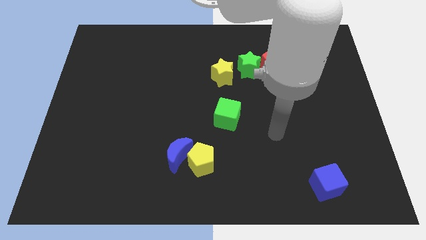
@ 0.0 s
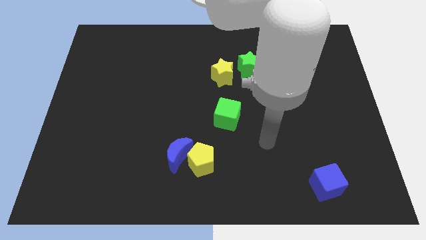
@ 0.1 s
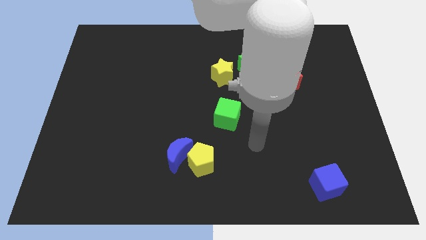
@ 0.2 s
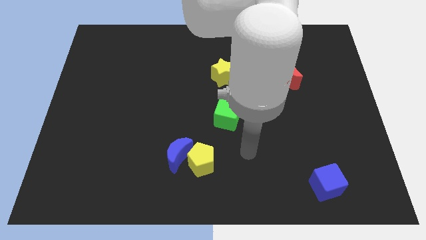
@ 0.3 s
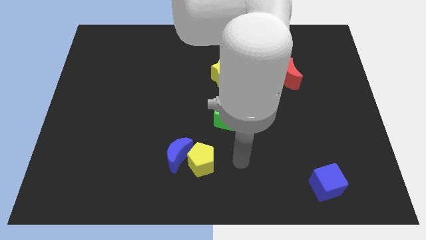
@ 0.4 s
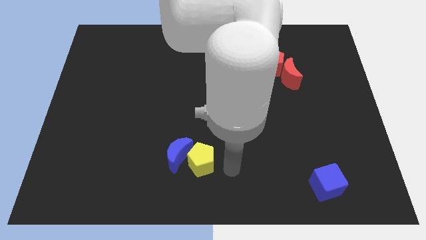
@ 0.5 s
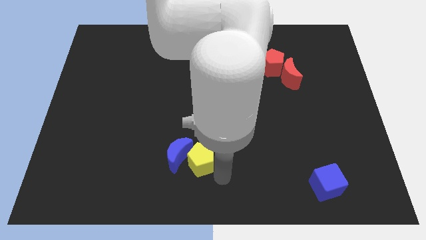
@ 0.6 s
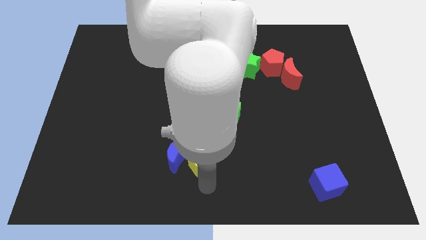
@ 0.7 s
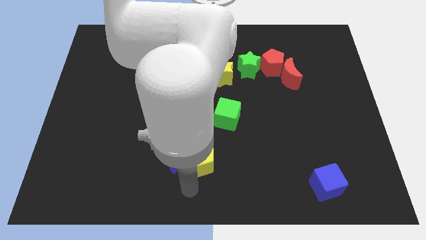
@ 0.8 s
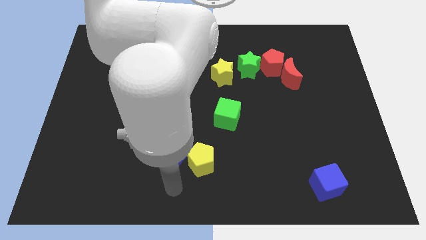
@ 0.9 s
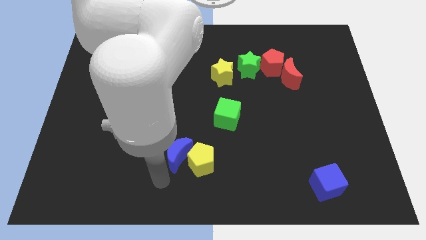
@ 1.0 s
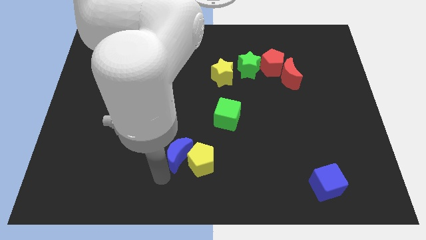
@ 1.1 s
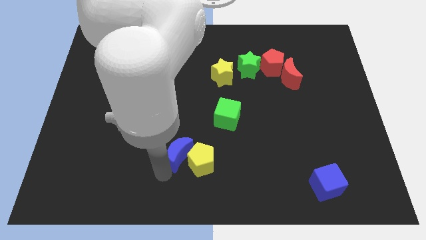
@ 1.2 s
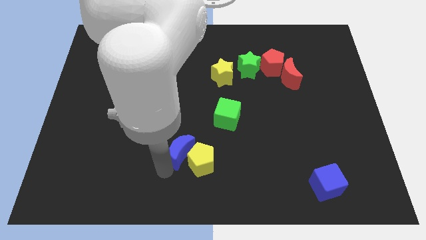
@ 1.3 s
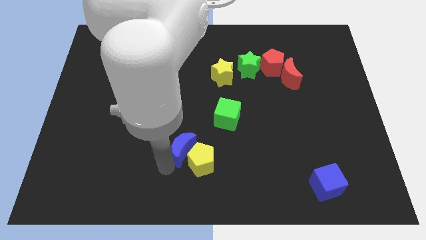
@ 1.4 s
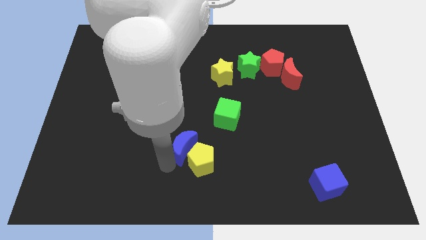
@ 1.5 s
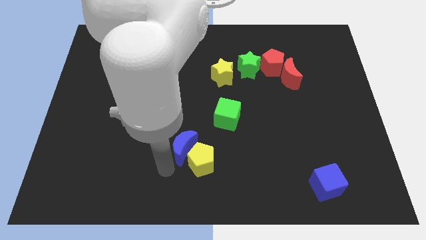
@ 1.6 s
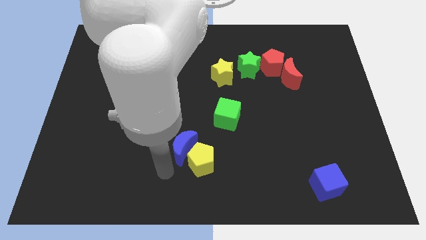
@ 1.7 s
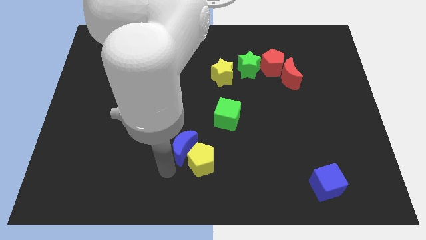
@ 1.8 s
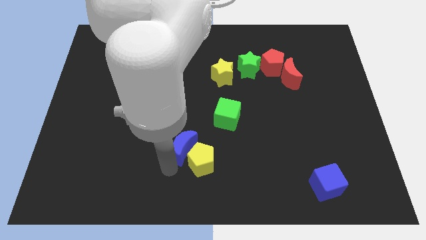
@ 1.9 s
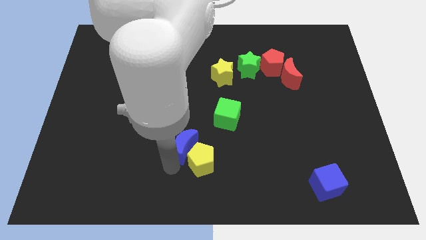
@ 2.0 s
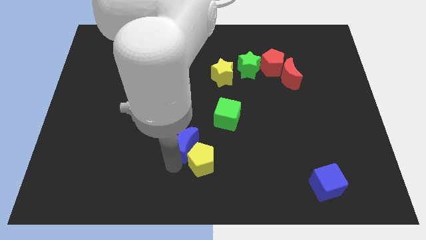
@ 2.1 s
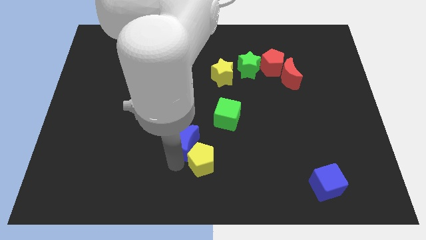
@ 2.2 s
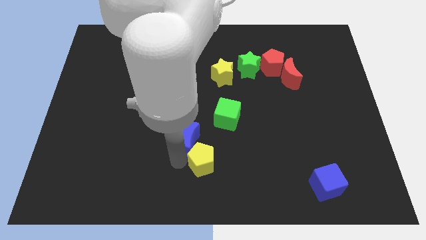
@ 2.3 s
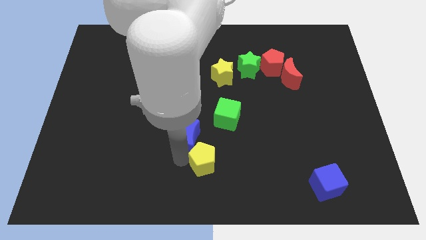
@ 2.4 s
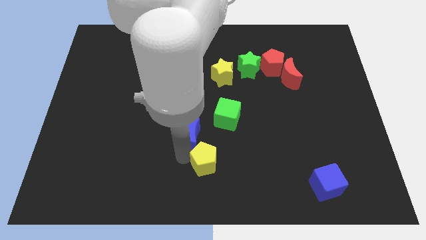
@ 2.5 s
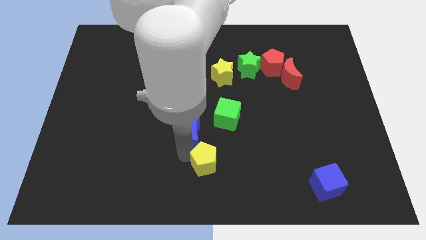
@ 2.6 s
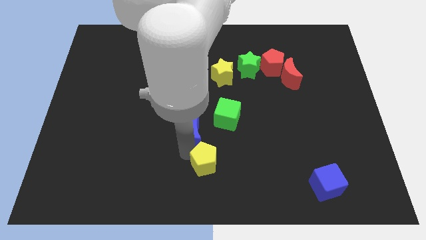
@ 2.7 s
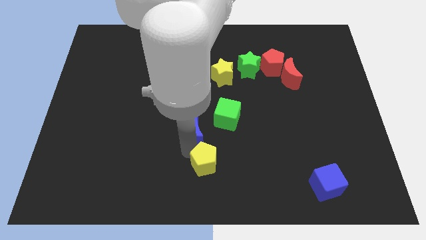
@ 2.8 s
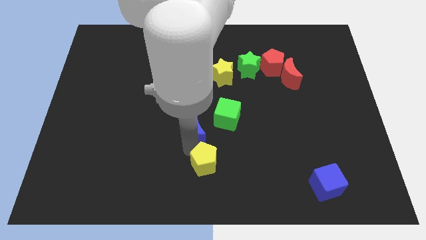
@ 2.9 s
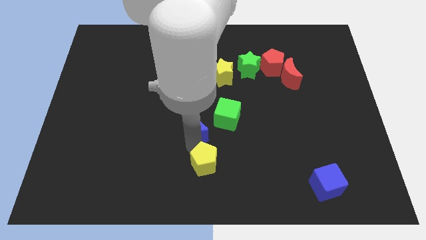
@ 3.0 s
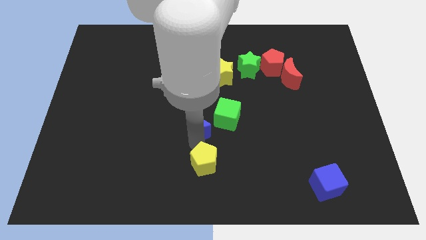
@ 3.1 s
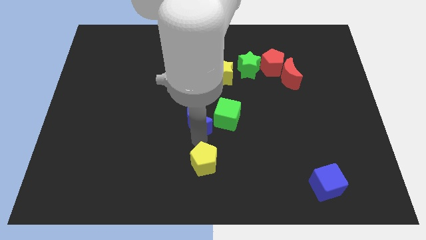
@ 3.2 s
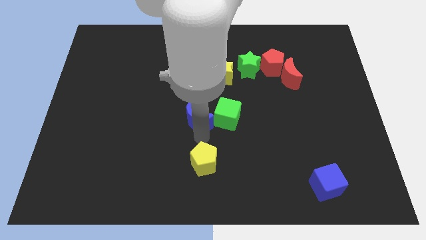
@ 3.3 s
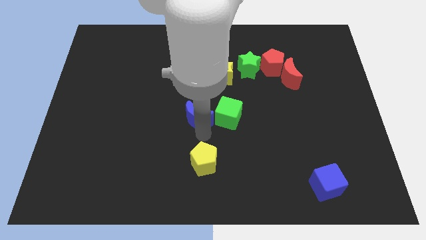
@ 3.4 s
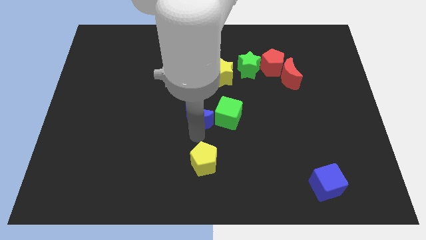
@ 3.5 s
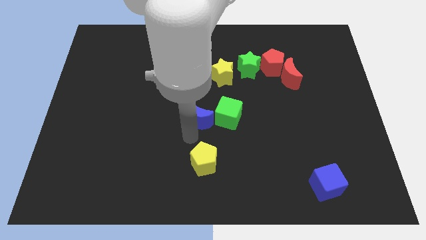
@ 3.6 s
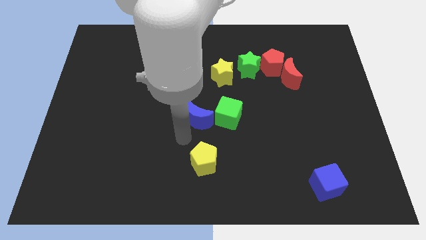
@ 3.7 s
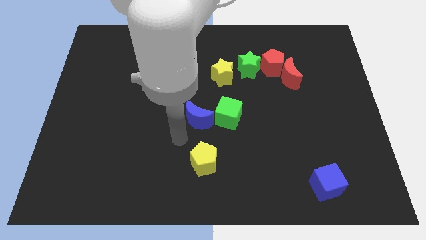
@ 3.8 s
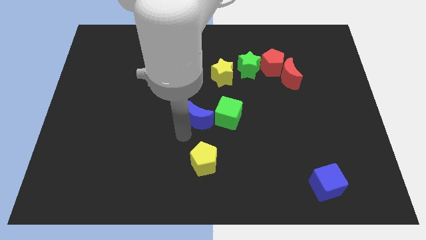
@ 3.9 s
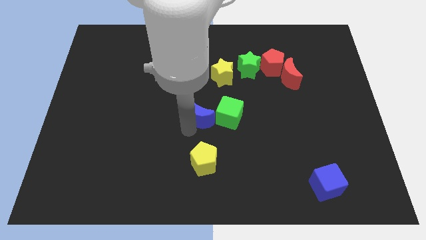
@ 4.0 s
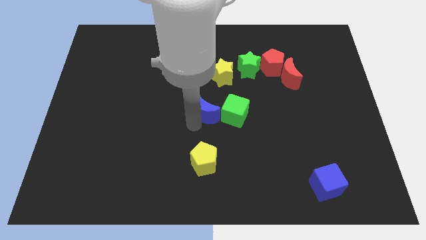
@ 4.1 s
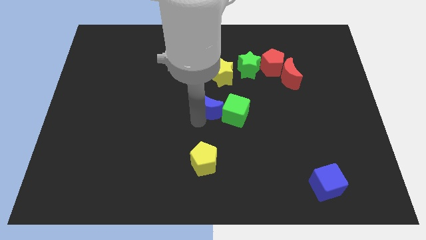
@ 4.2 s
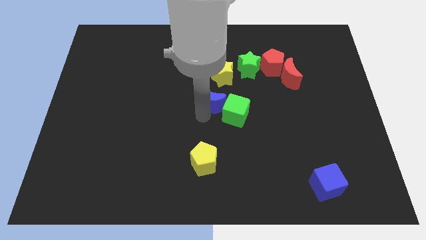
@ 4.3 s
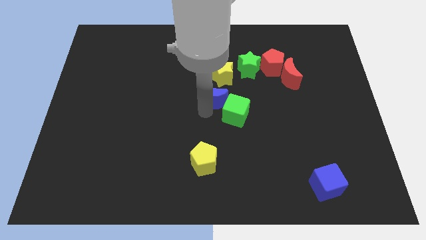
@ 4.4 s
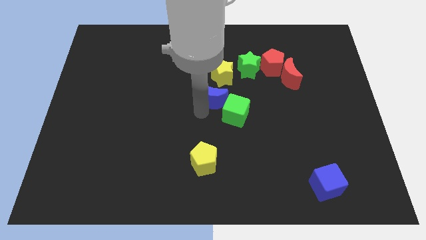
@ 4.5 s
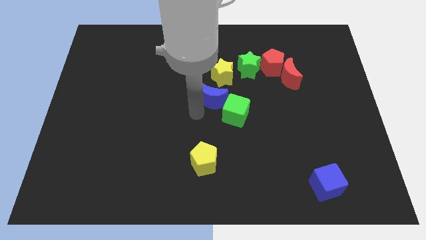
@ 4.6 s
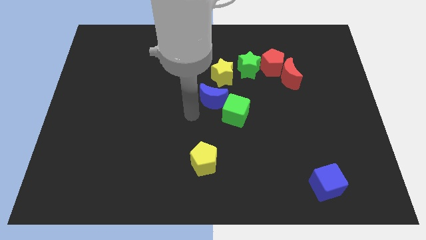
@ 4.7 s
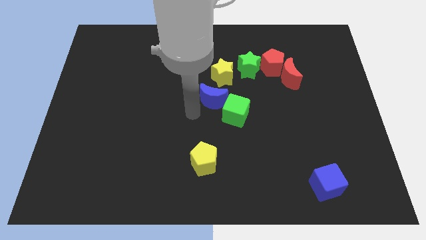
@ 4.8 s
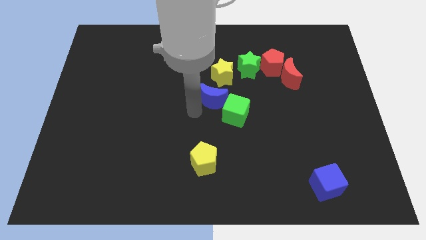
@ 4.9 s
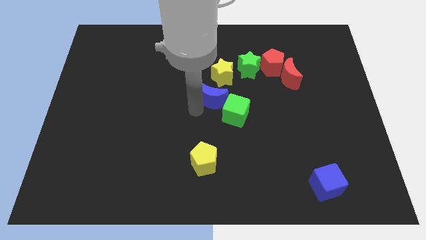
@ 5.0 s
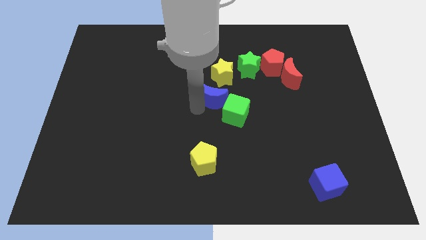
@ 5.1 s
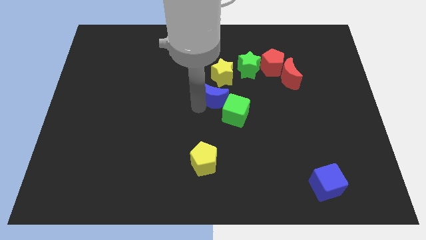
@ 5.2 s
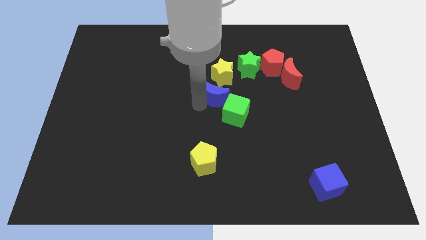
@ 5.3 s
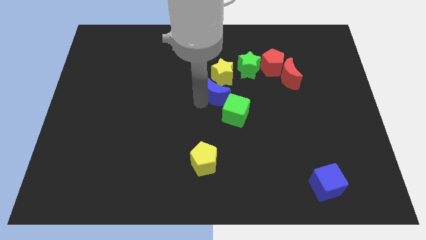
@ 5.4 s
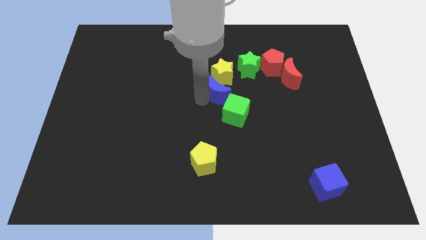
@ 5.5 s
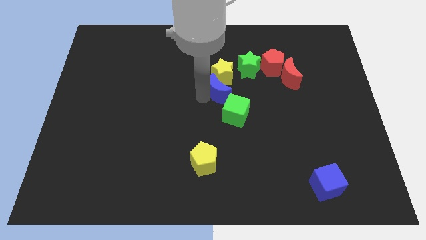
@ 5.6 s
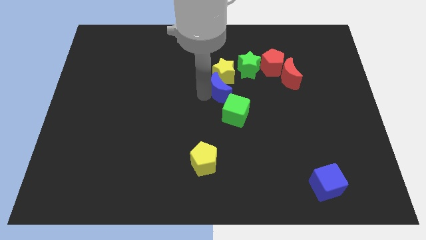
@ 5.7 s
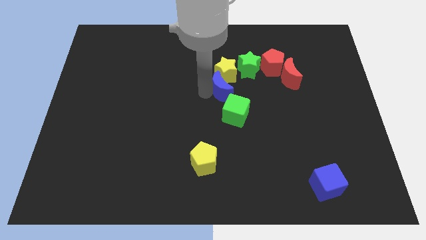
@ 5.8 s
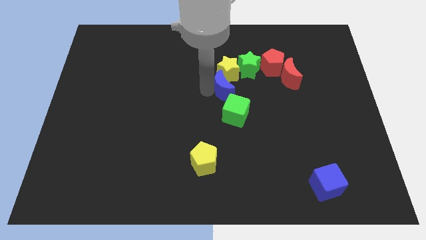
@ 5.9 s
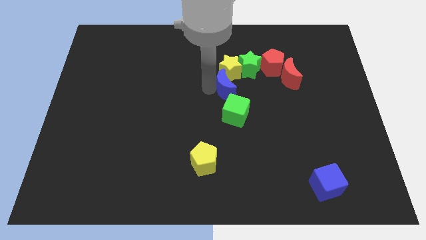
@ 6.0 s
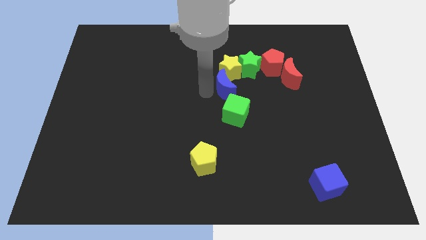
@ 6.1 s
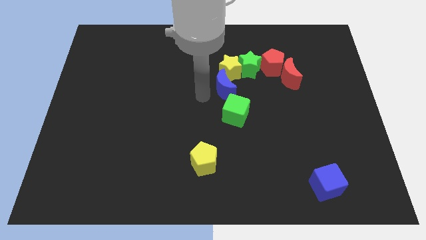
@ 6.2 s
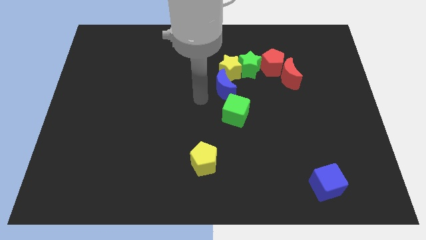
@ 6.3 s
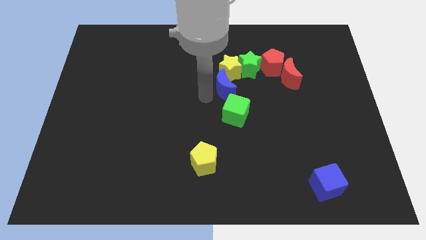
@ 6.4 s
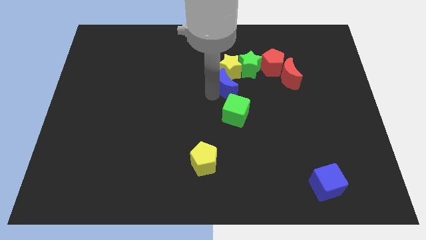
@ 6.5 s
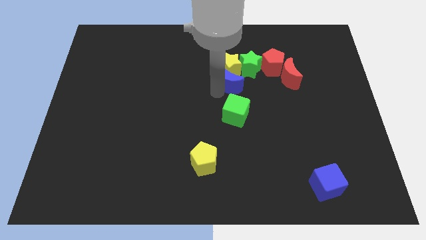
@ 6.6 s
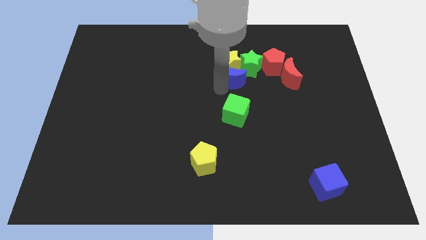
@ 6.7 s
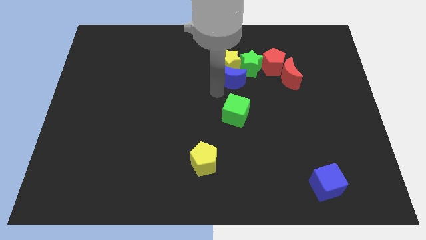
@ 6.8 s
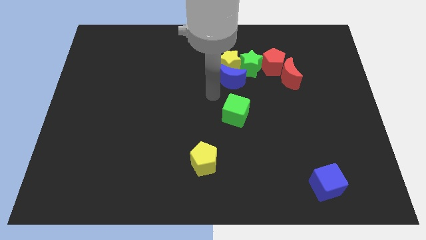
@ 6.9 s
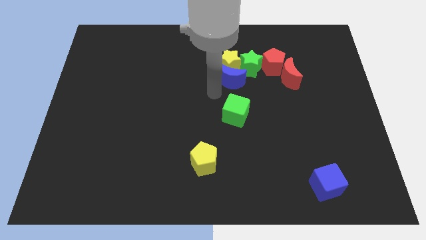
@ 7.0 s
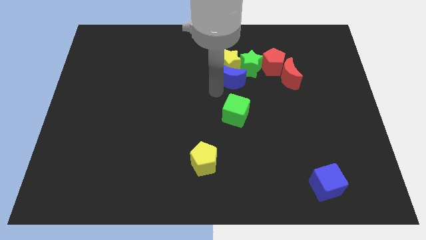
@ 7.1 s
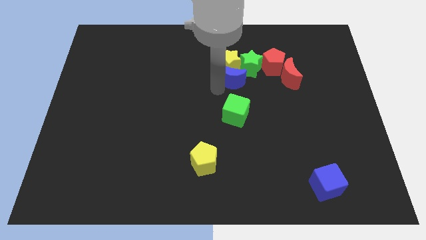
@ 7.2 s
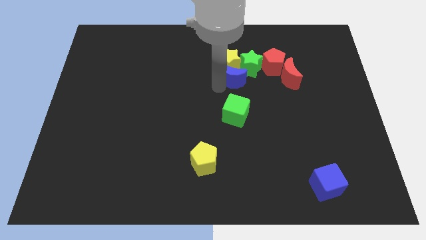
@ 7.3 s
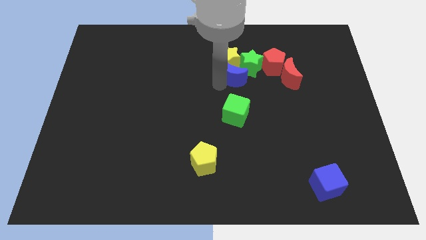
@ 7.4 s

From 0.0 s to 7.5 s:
put the blue moon close to the green star
